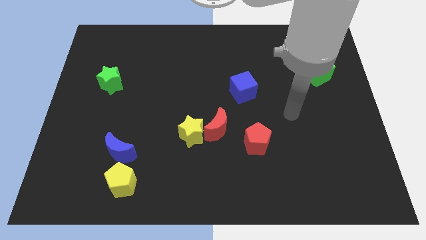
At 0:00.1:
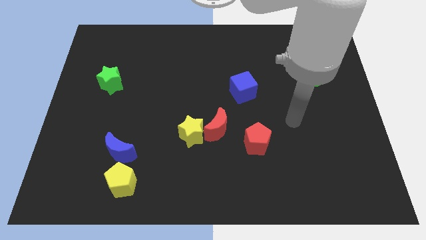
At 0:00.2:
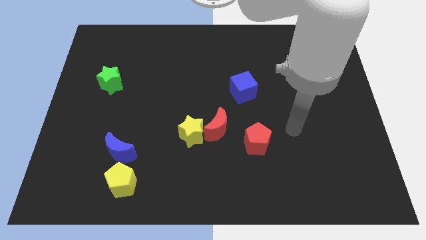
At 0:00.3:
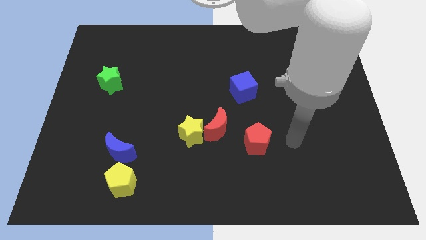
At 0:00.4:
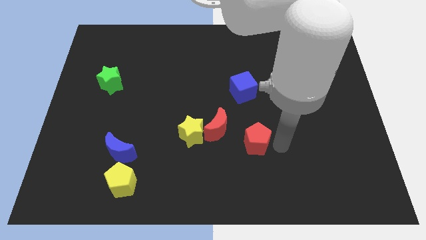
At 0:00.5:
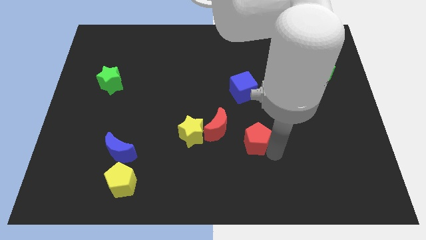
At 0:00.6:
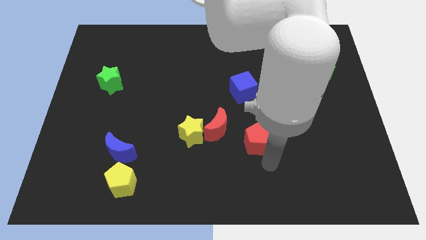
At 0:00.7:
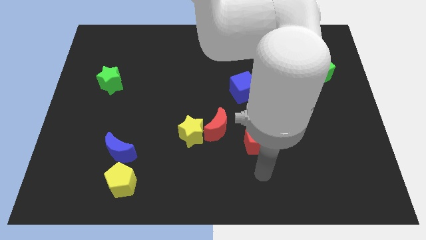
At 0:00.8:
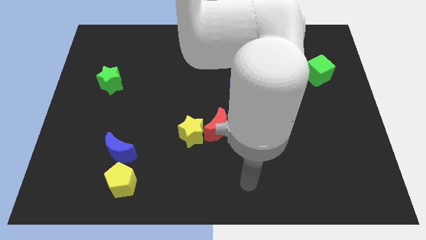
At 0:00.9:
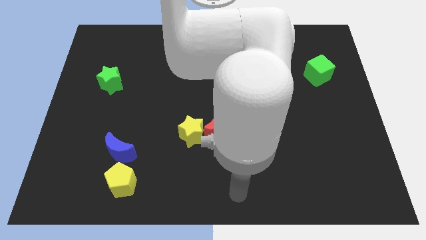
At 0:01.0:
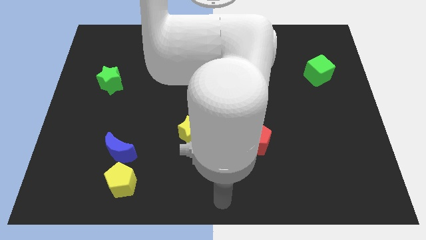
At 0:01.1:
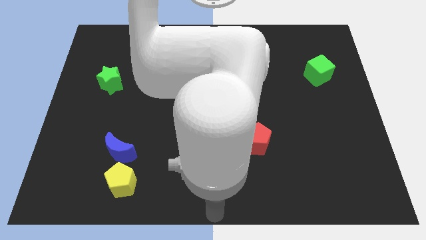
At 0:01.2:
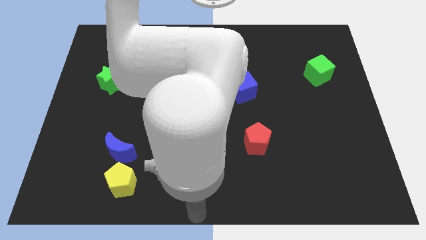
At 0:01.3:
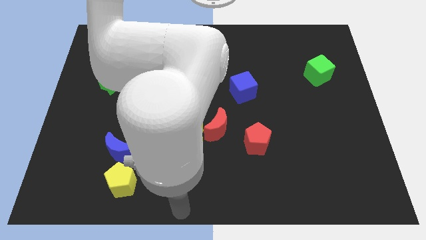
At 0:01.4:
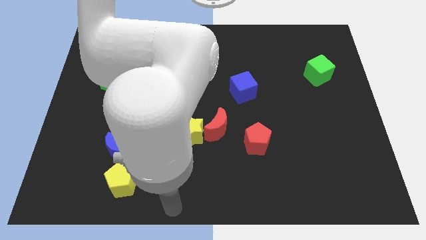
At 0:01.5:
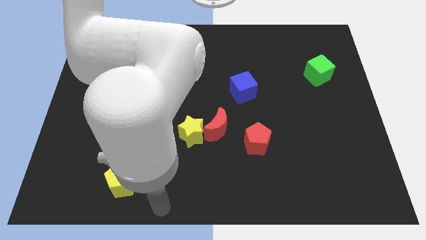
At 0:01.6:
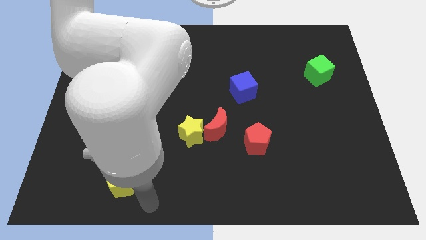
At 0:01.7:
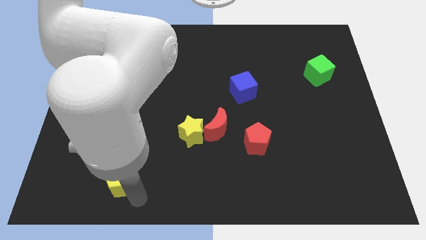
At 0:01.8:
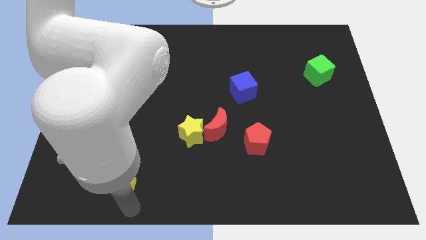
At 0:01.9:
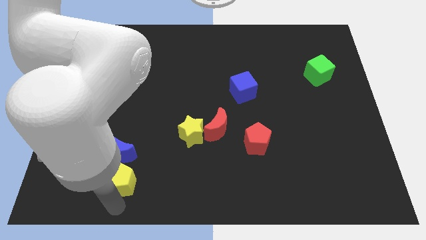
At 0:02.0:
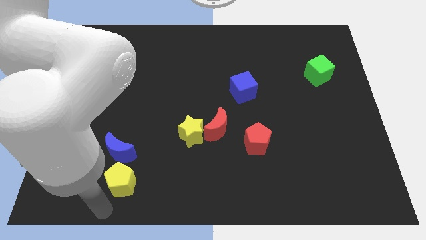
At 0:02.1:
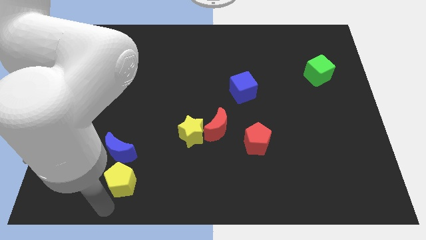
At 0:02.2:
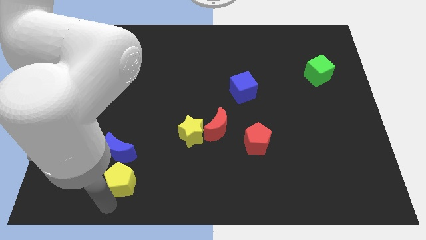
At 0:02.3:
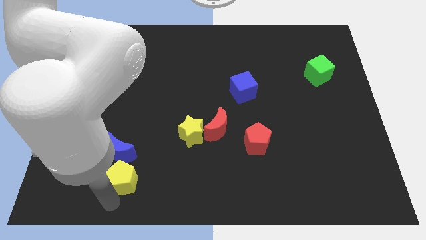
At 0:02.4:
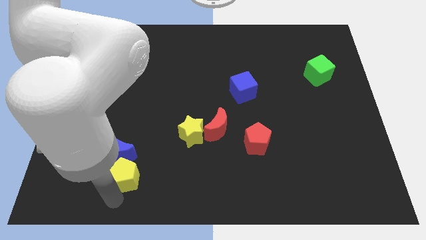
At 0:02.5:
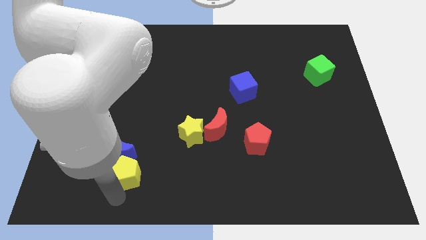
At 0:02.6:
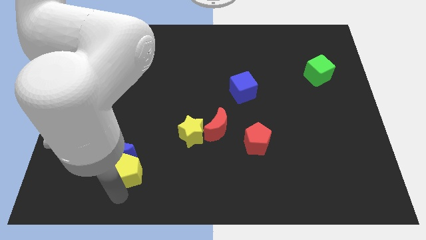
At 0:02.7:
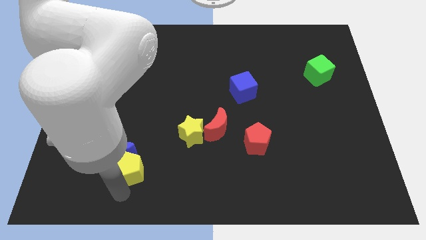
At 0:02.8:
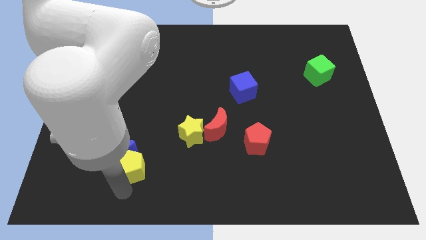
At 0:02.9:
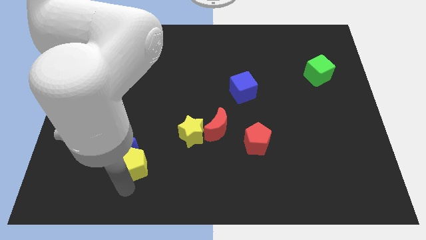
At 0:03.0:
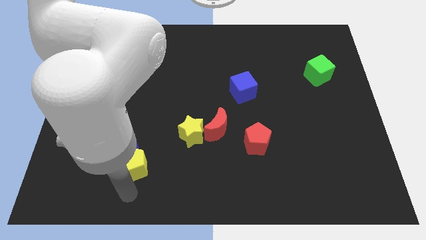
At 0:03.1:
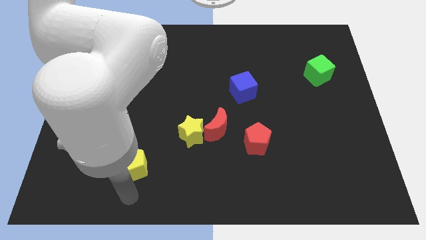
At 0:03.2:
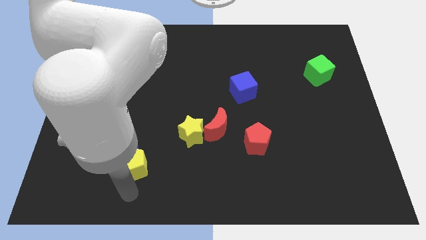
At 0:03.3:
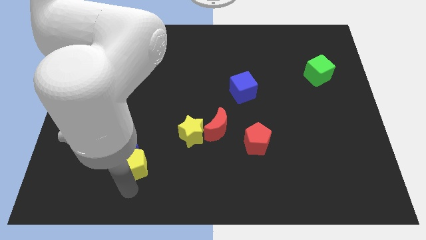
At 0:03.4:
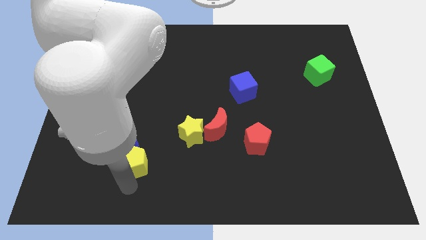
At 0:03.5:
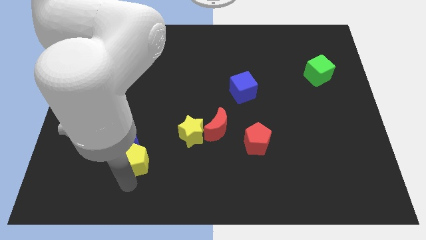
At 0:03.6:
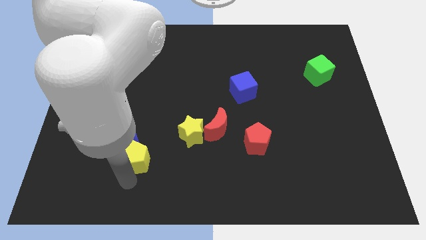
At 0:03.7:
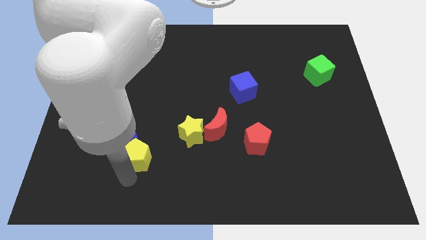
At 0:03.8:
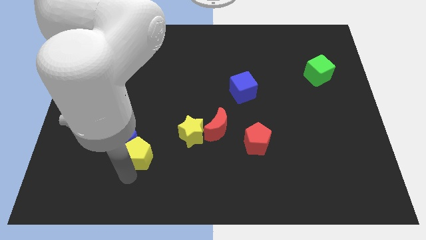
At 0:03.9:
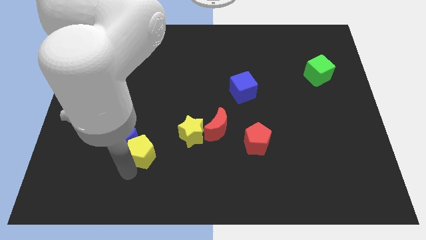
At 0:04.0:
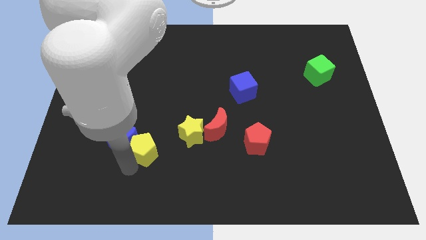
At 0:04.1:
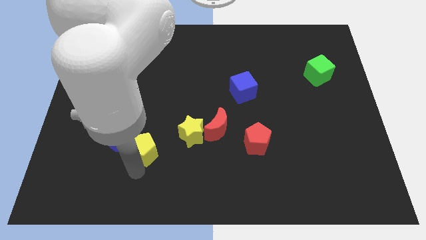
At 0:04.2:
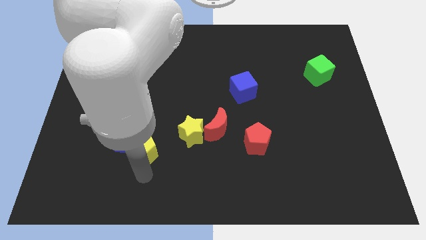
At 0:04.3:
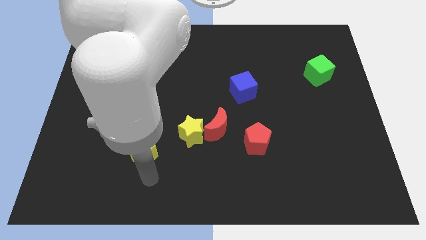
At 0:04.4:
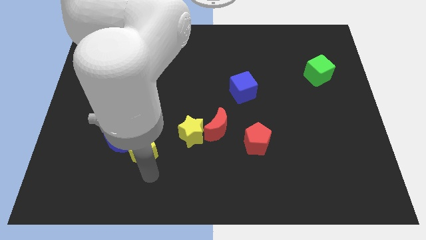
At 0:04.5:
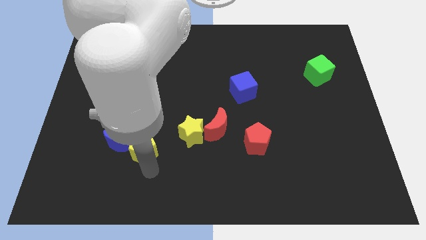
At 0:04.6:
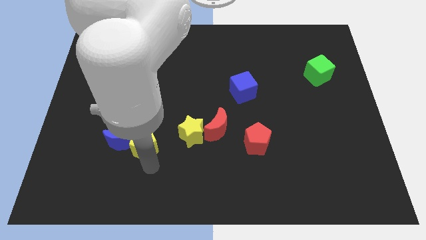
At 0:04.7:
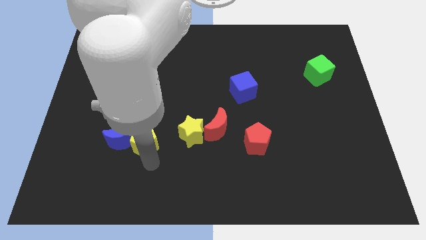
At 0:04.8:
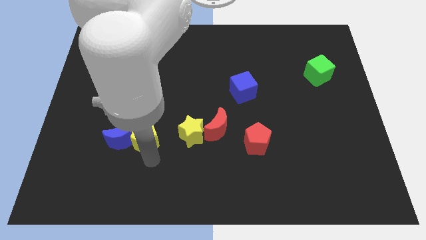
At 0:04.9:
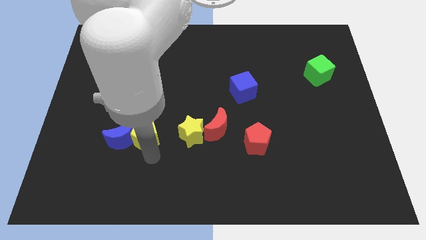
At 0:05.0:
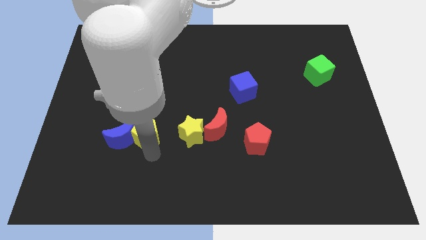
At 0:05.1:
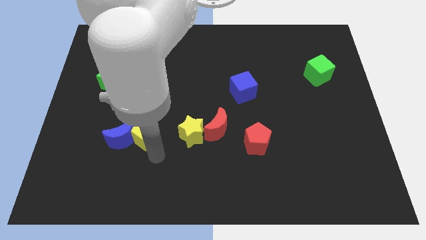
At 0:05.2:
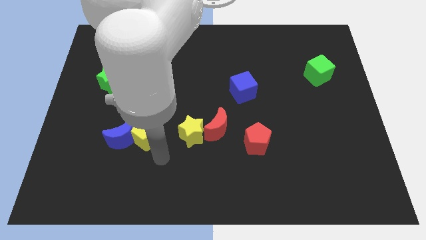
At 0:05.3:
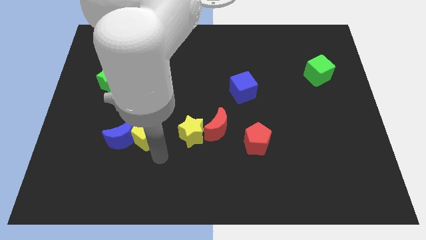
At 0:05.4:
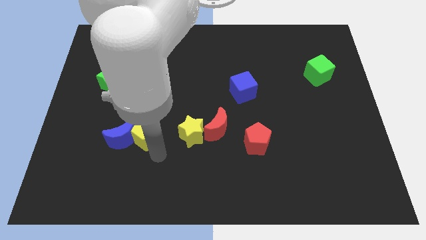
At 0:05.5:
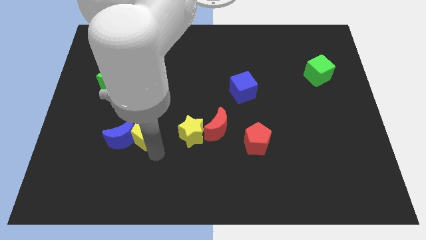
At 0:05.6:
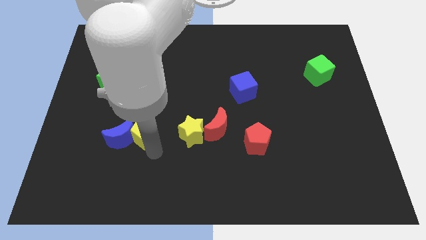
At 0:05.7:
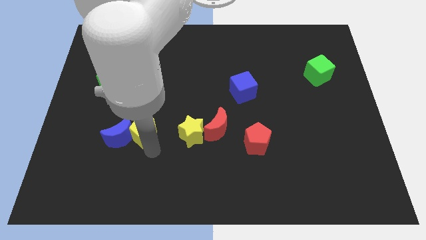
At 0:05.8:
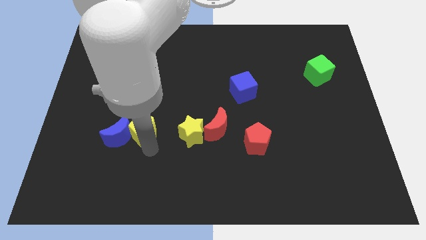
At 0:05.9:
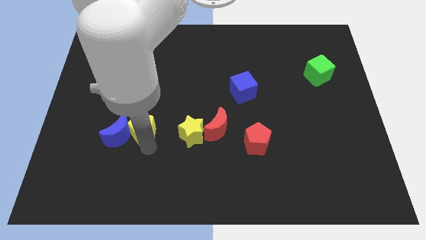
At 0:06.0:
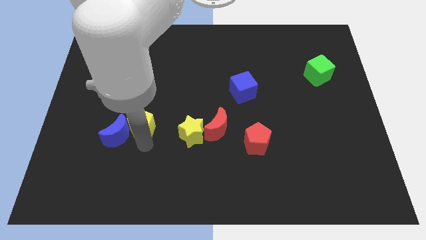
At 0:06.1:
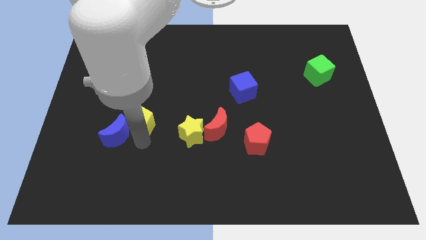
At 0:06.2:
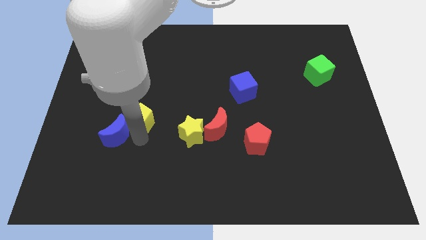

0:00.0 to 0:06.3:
push the yellow pentagon to the top side of the blue moon

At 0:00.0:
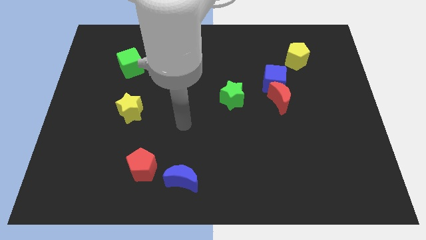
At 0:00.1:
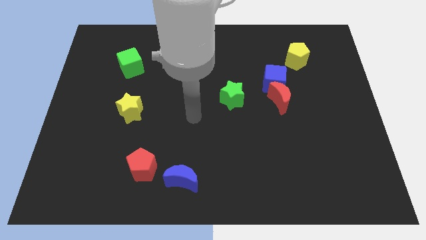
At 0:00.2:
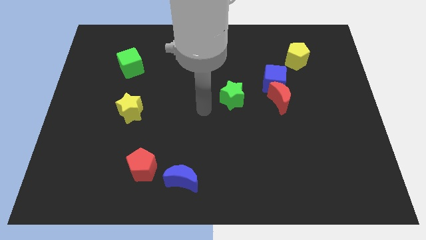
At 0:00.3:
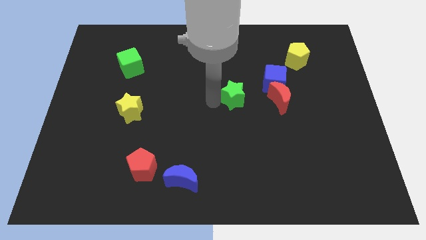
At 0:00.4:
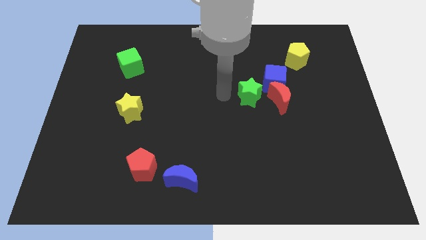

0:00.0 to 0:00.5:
put the blue cube just right of the green star
